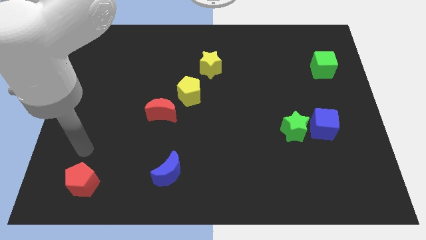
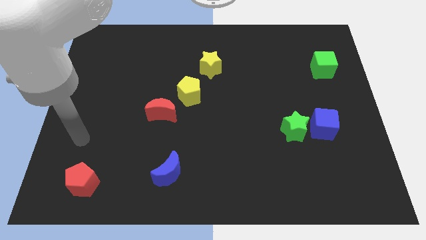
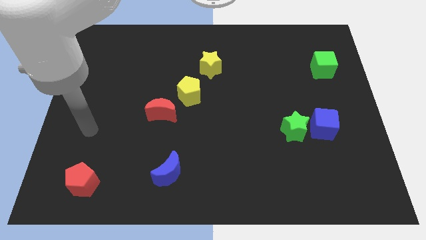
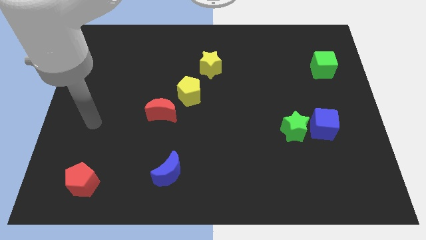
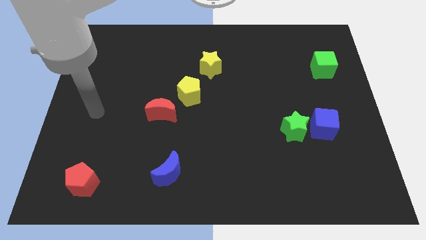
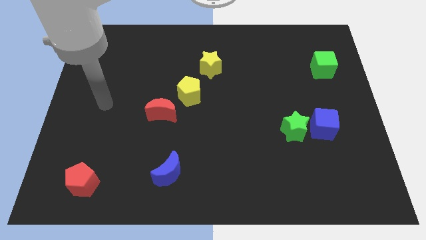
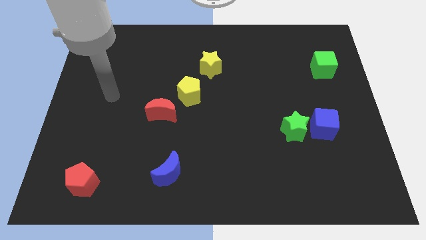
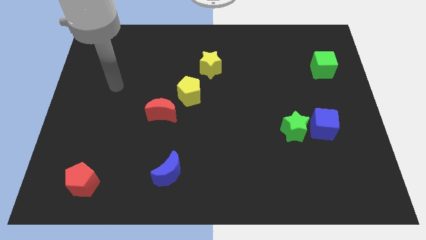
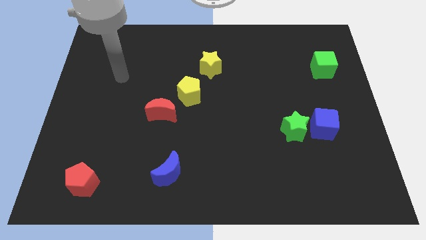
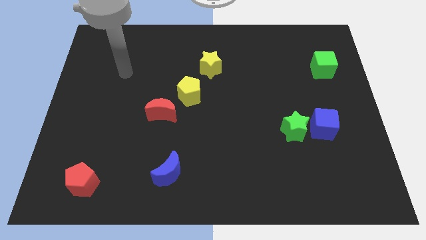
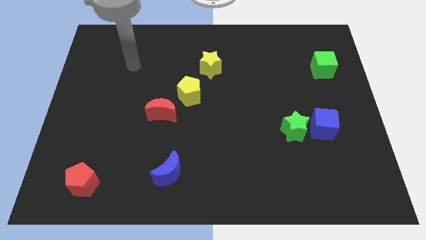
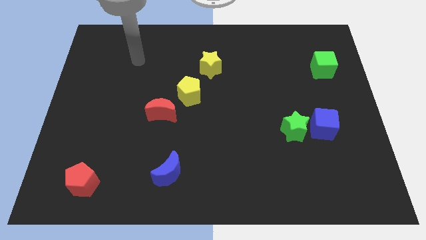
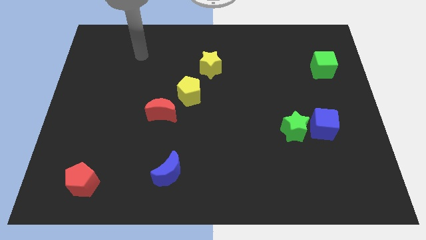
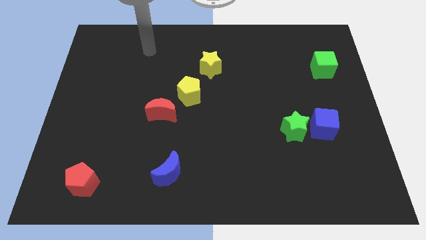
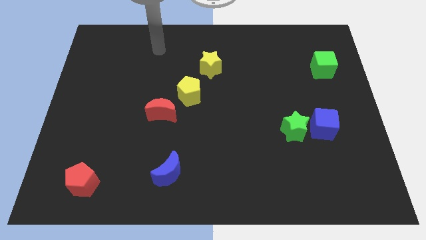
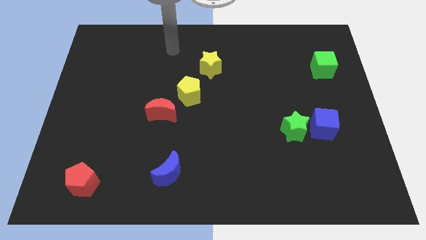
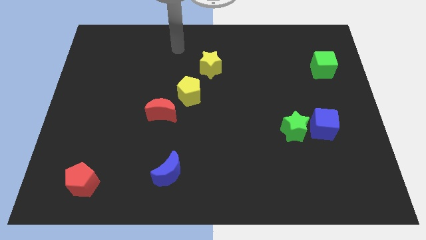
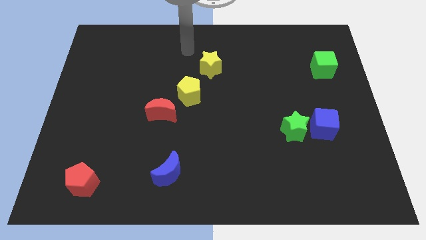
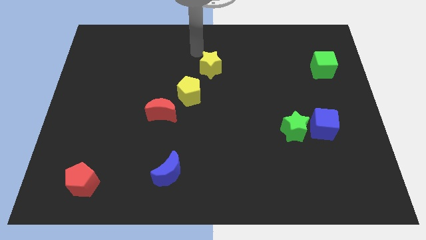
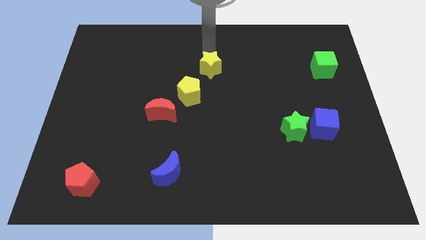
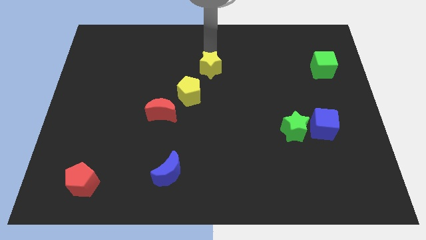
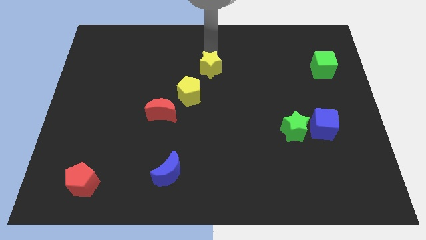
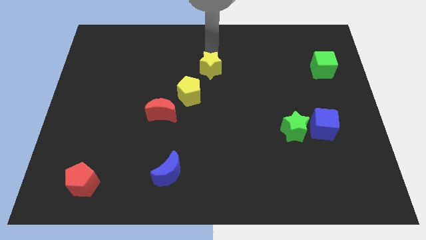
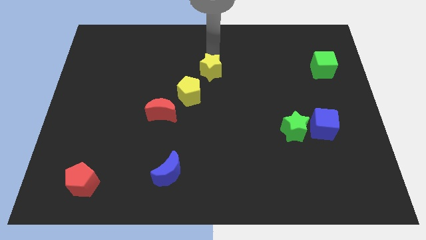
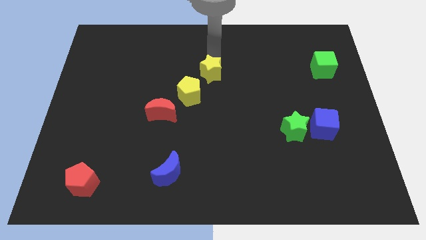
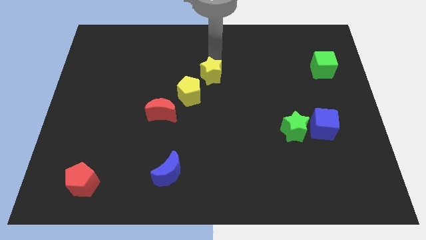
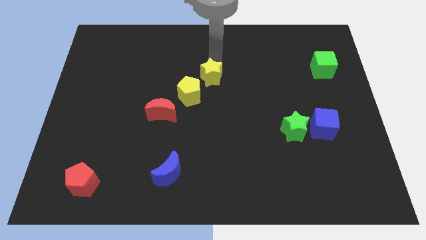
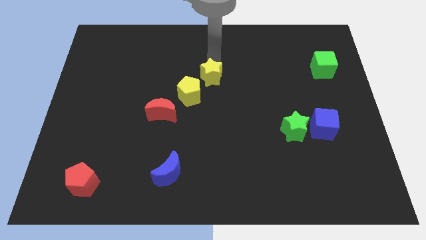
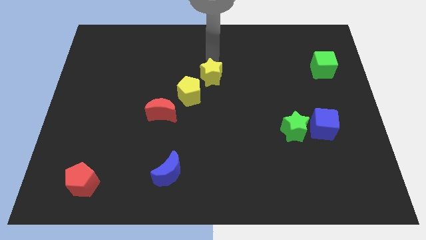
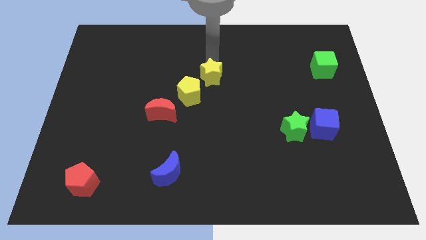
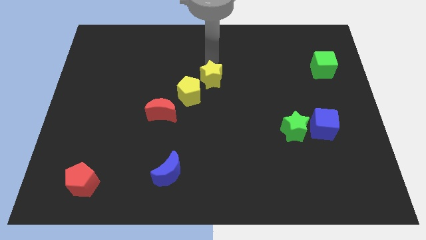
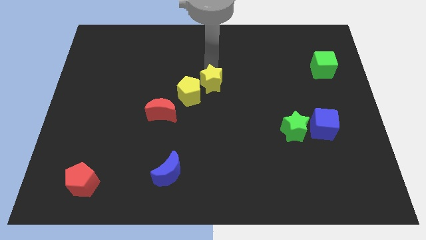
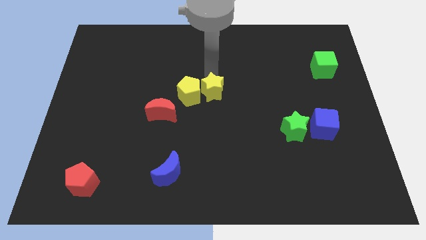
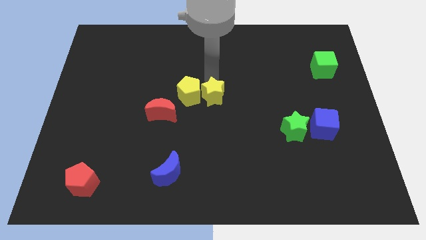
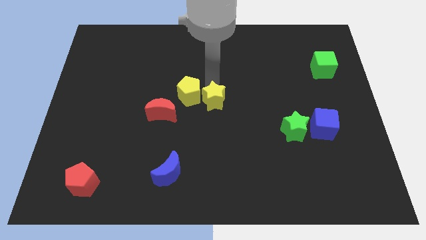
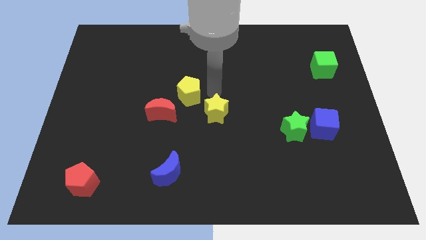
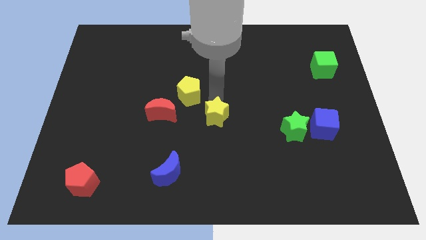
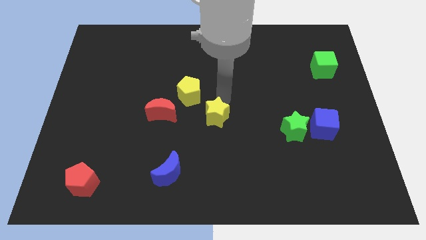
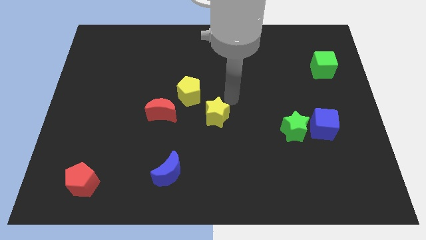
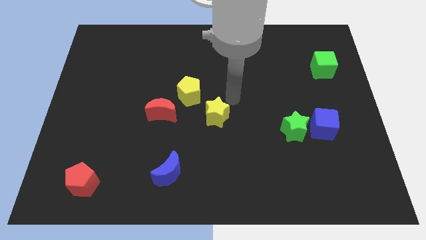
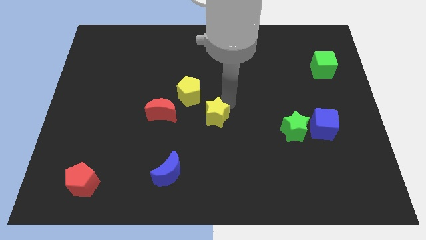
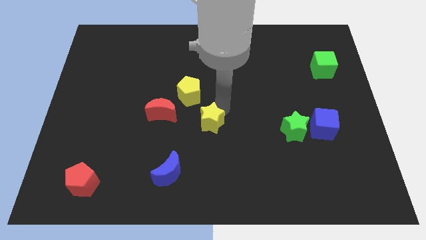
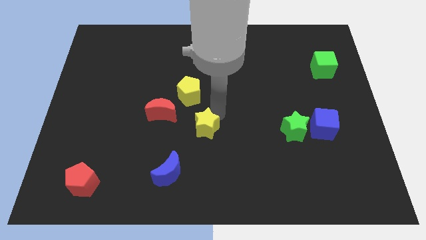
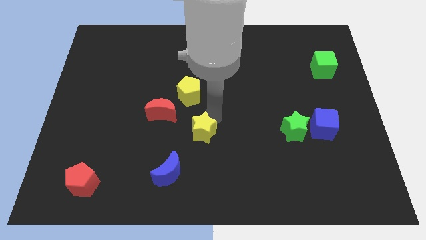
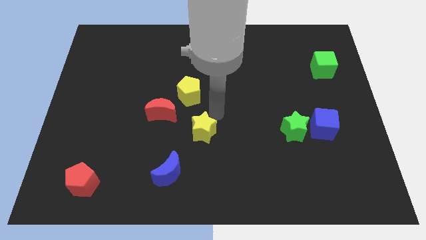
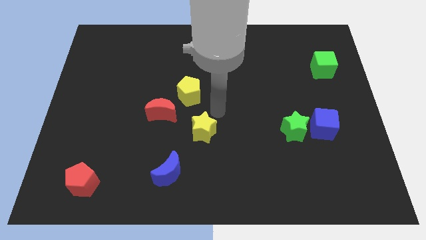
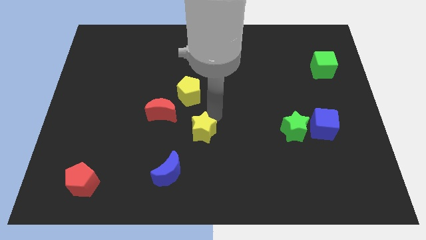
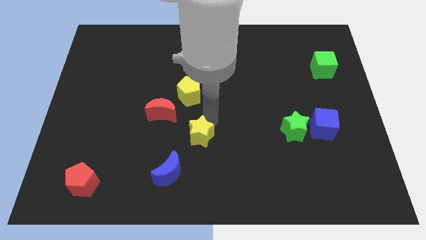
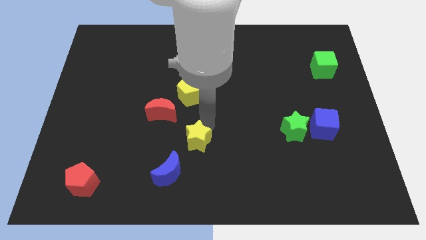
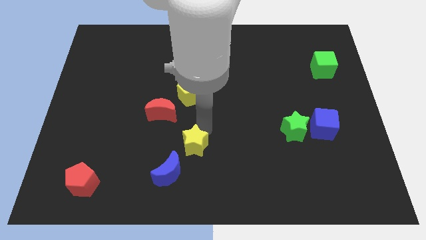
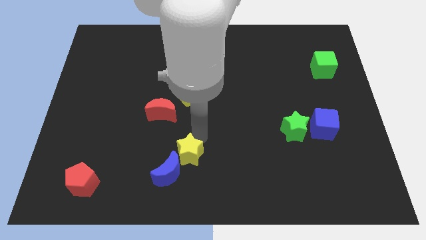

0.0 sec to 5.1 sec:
put the yellow star close to the blue moon

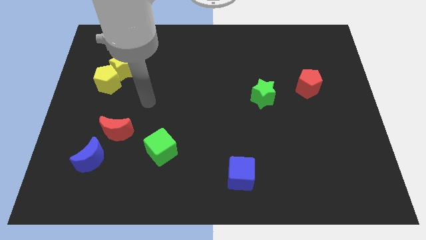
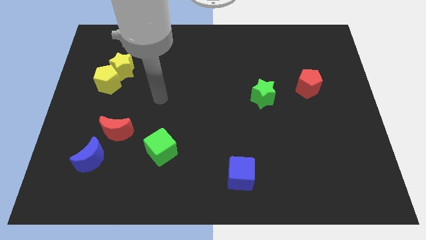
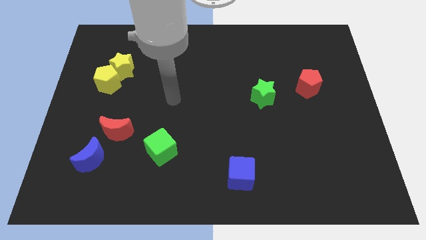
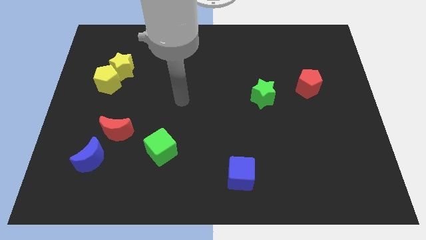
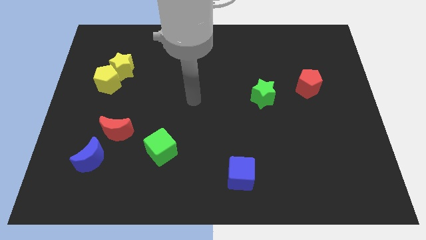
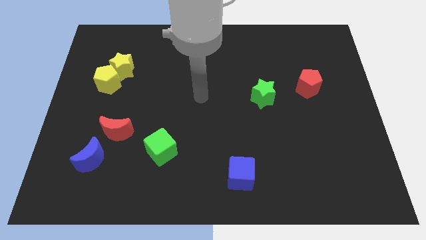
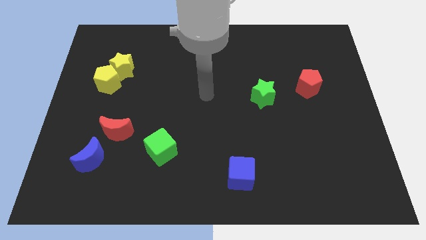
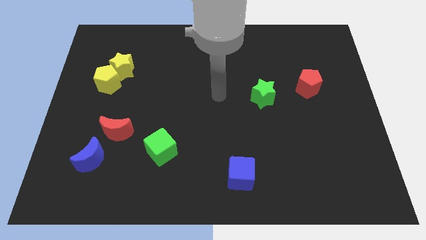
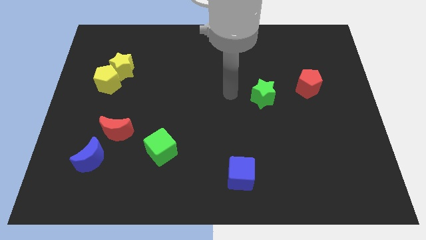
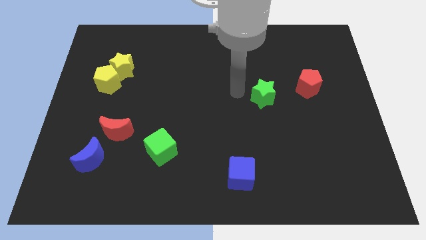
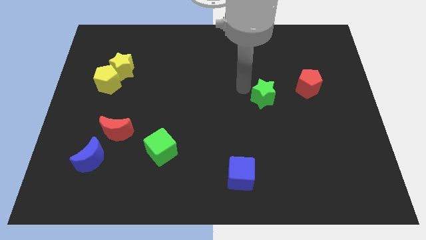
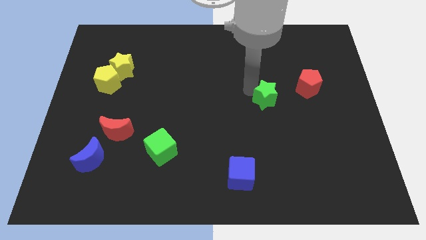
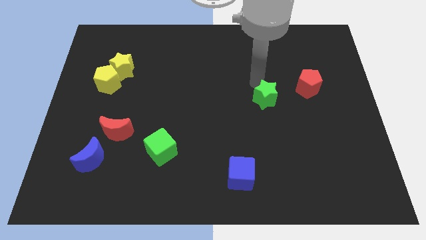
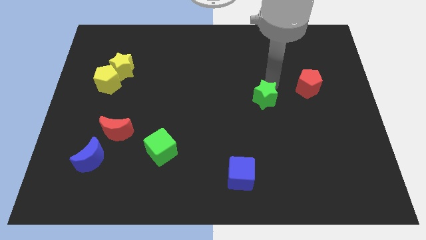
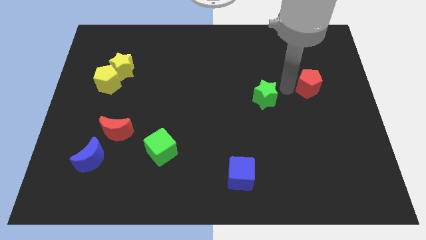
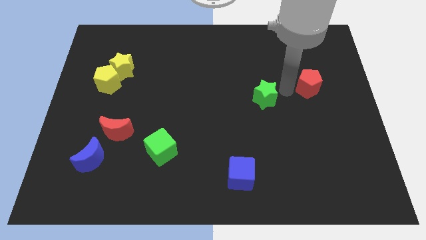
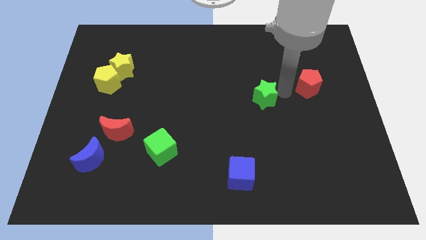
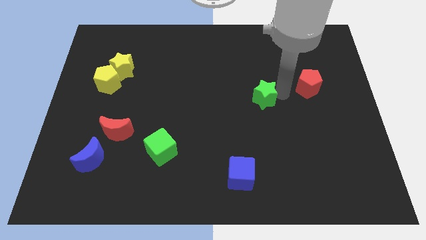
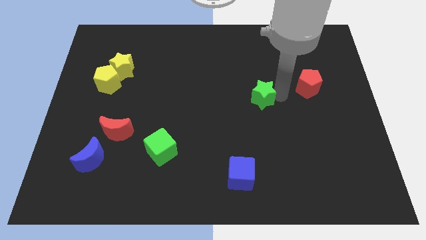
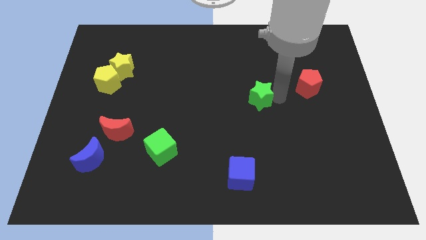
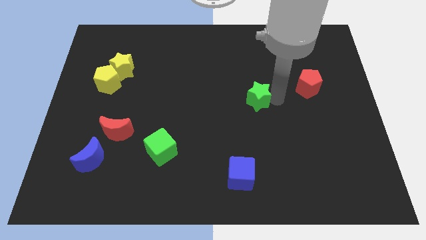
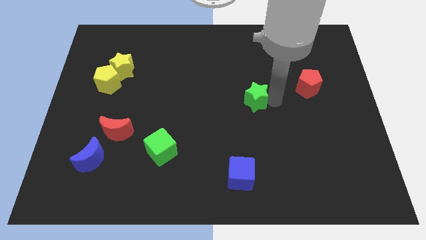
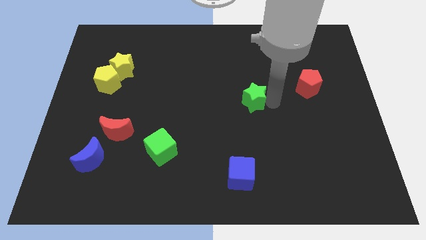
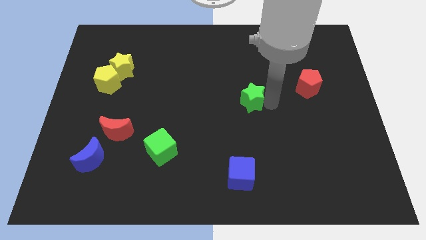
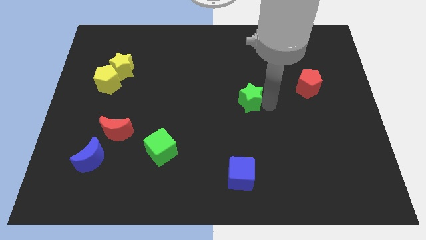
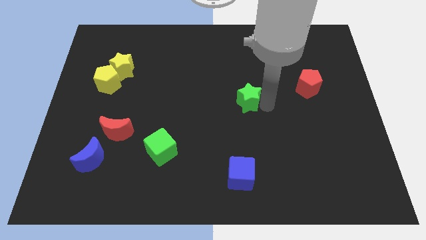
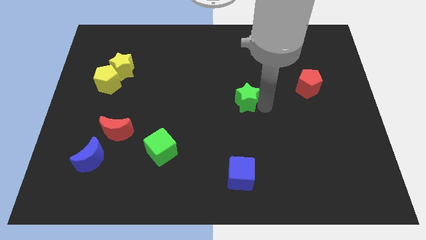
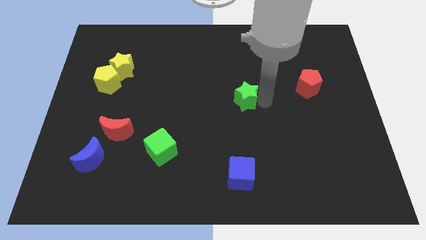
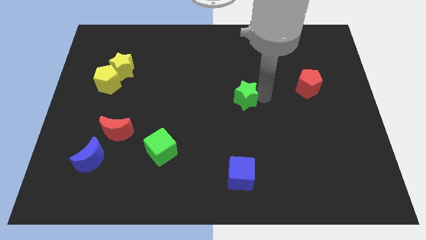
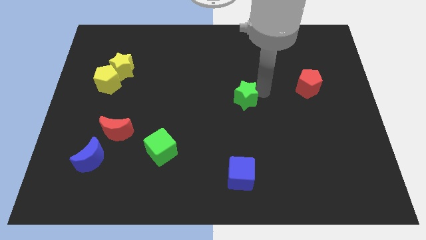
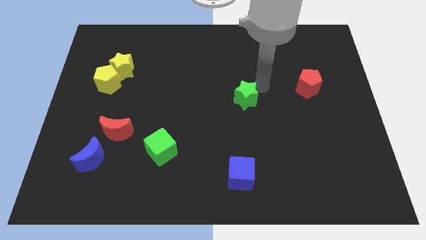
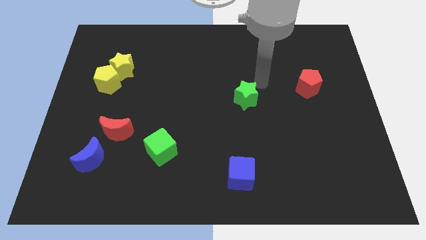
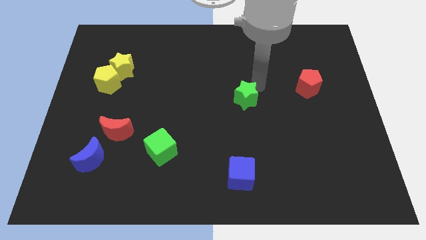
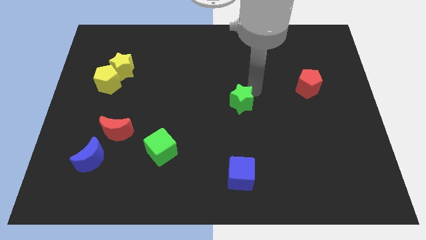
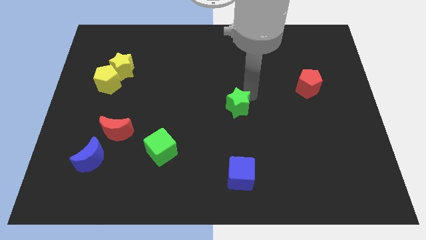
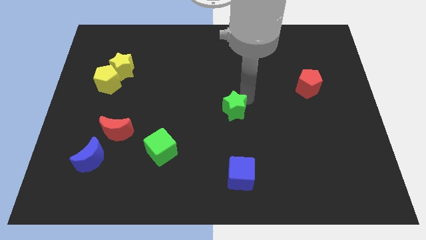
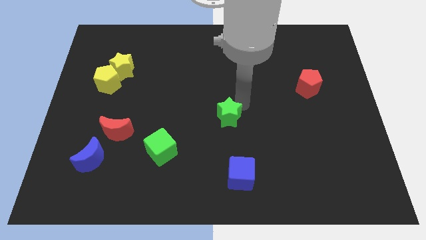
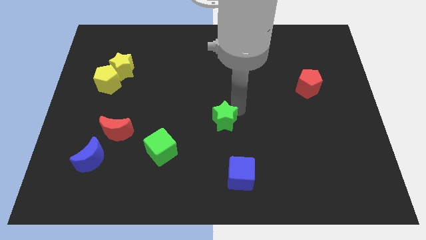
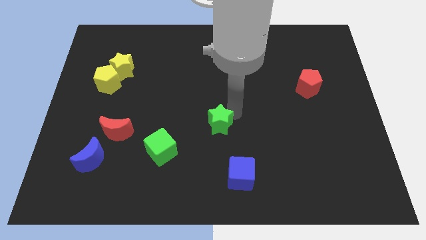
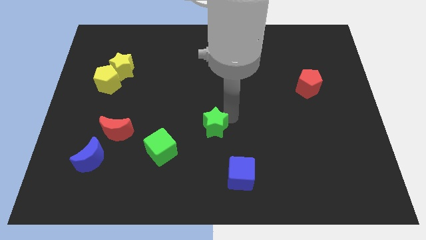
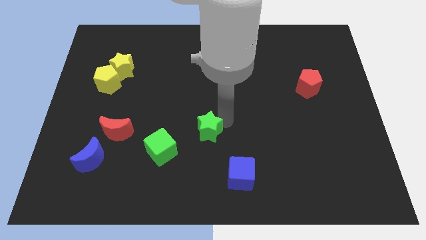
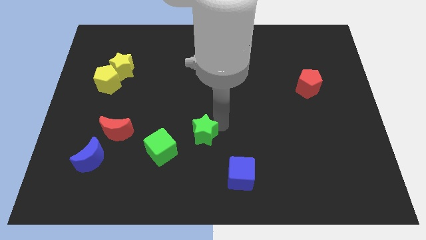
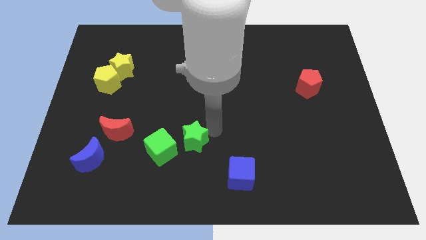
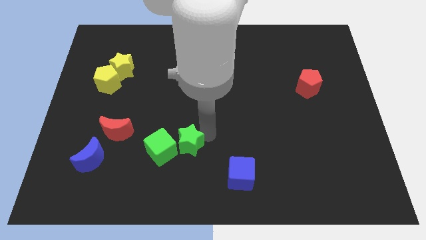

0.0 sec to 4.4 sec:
put the green star towards the green cube
